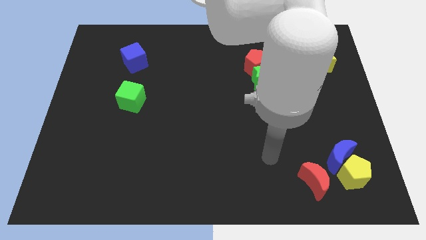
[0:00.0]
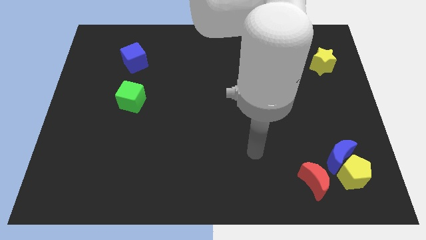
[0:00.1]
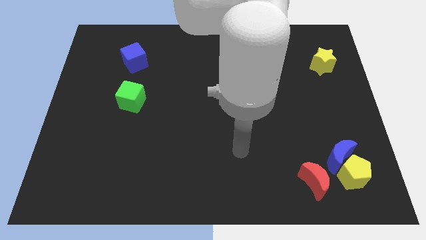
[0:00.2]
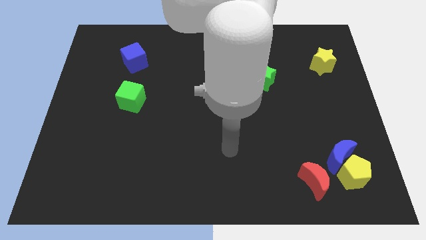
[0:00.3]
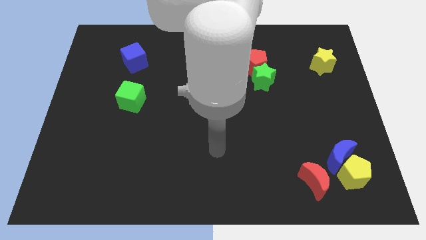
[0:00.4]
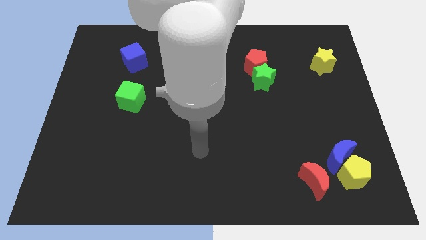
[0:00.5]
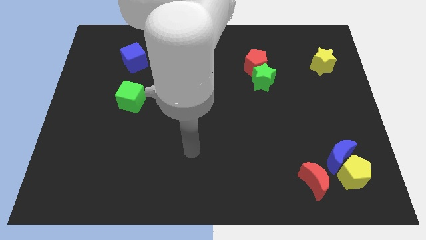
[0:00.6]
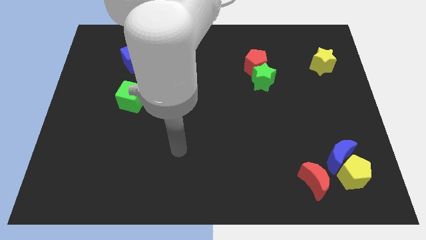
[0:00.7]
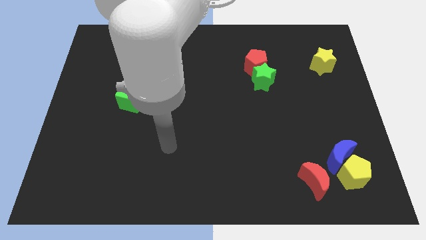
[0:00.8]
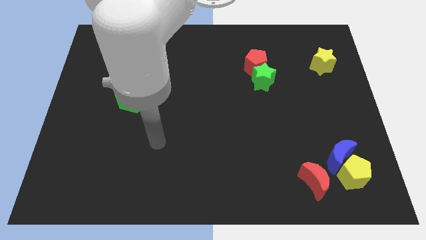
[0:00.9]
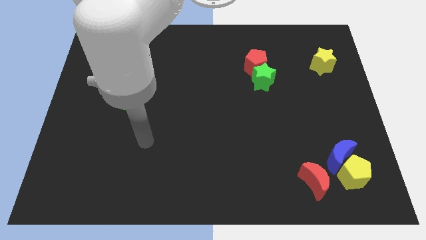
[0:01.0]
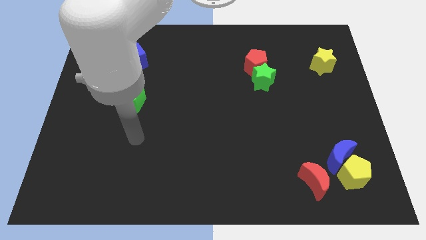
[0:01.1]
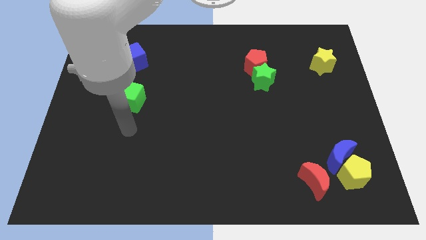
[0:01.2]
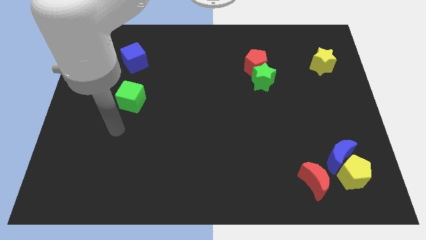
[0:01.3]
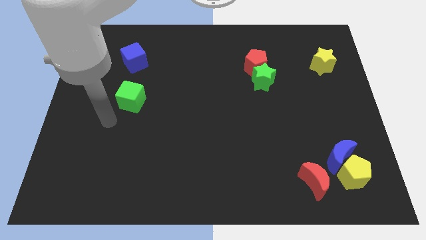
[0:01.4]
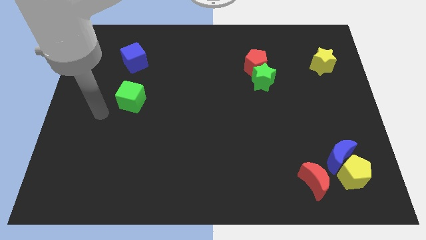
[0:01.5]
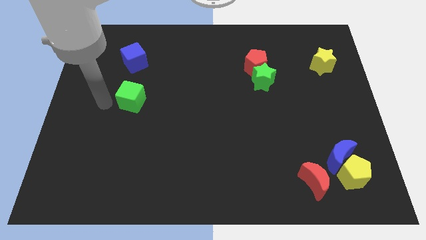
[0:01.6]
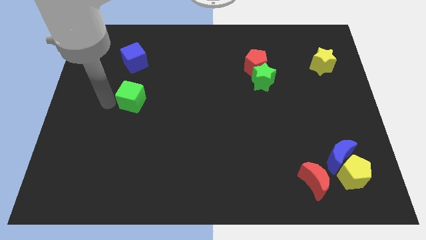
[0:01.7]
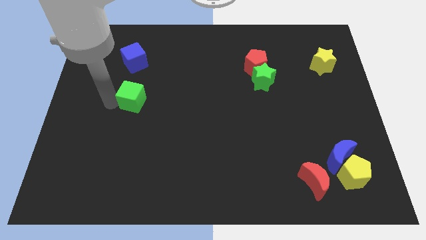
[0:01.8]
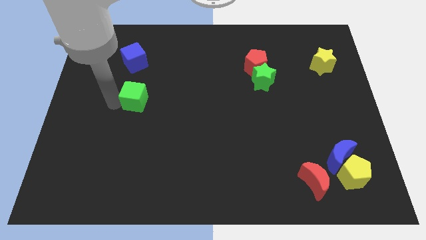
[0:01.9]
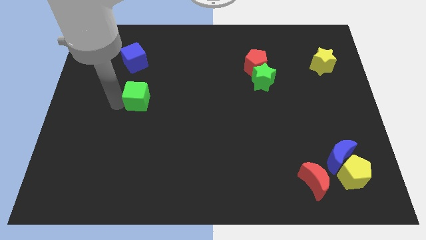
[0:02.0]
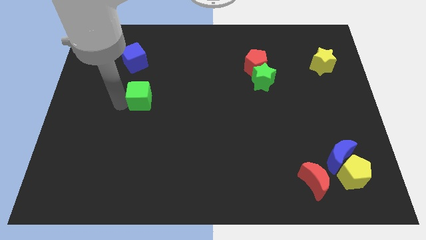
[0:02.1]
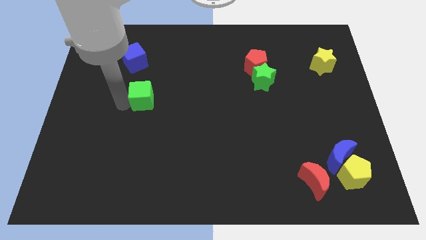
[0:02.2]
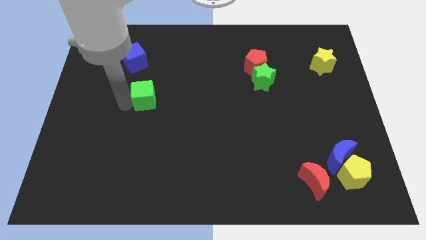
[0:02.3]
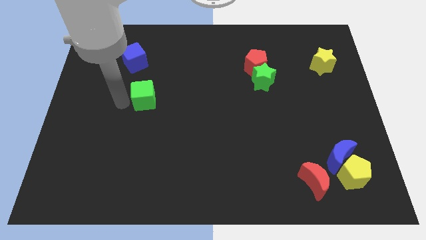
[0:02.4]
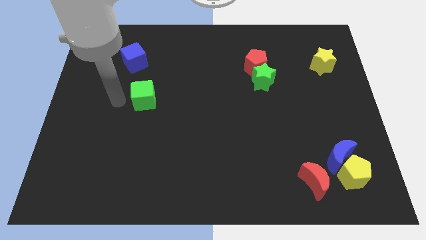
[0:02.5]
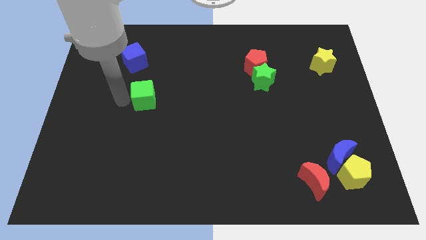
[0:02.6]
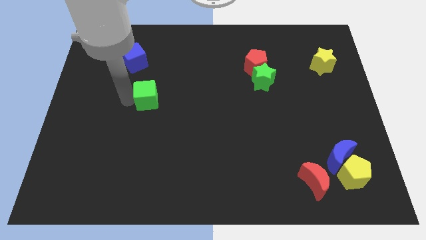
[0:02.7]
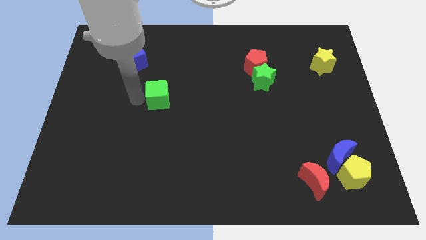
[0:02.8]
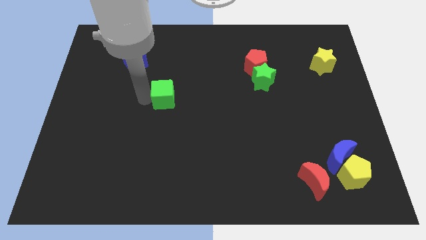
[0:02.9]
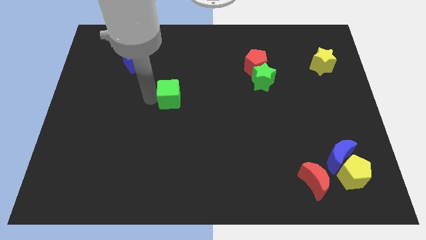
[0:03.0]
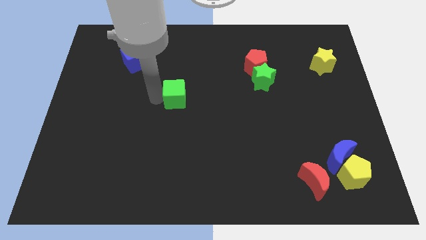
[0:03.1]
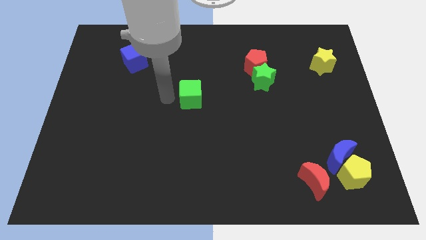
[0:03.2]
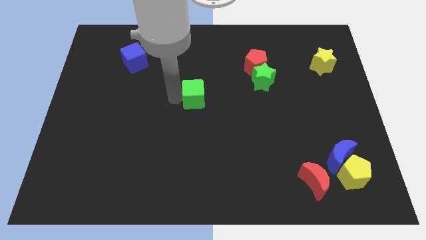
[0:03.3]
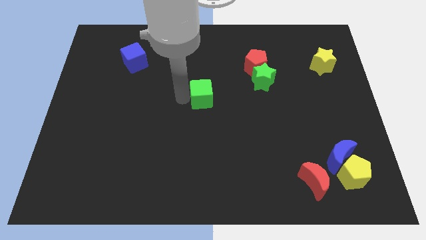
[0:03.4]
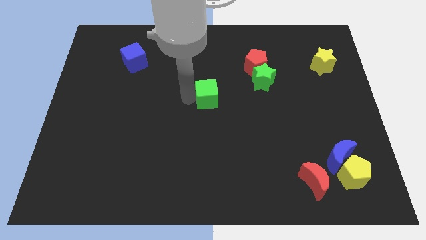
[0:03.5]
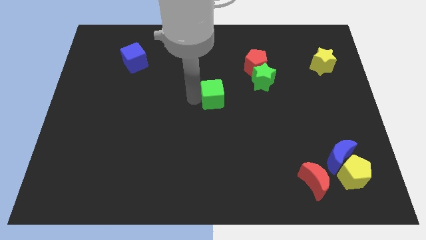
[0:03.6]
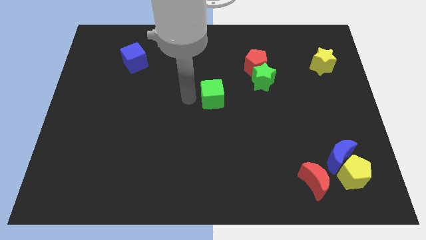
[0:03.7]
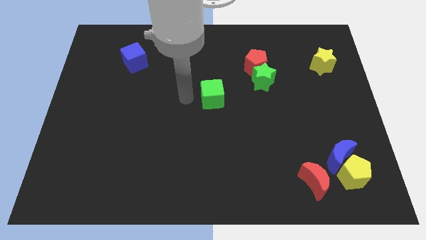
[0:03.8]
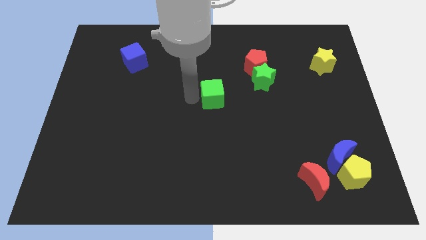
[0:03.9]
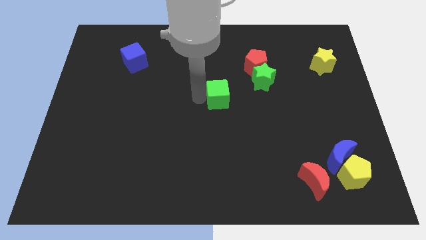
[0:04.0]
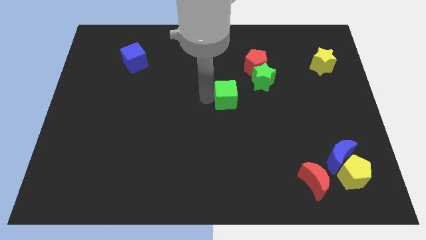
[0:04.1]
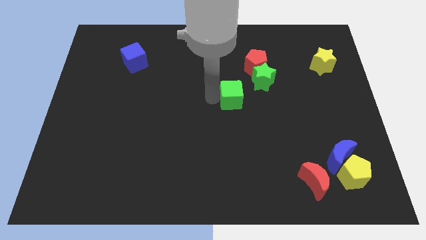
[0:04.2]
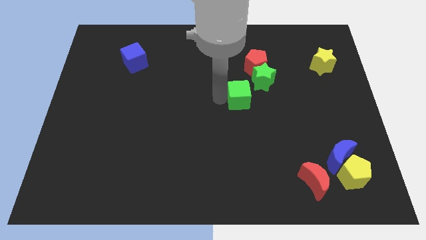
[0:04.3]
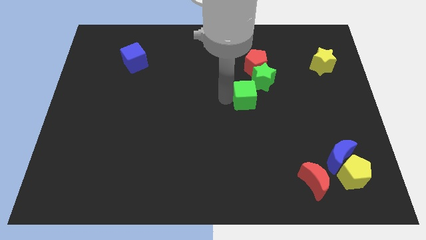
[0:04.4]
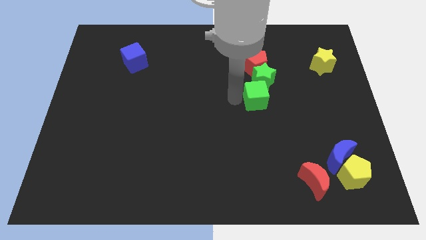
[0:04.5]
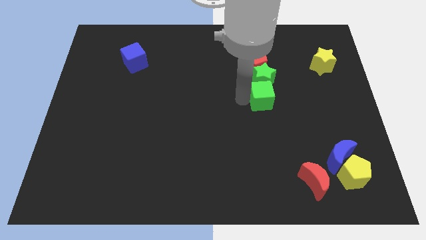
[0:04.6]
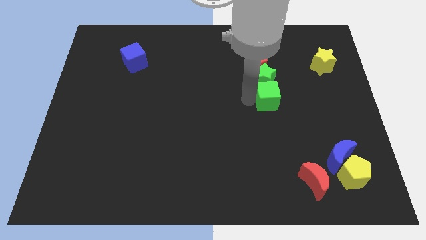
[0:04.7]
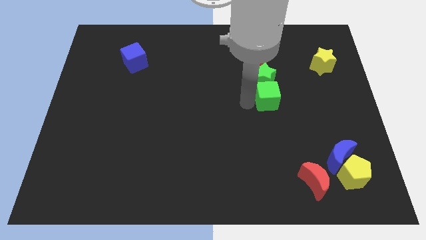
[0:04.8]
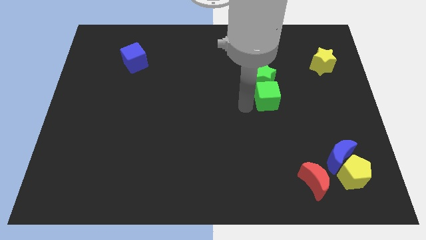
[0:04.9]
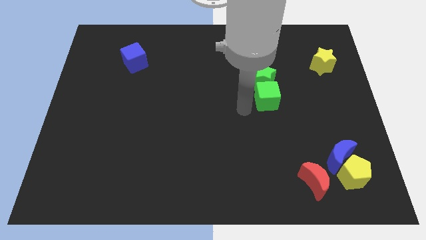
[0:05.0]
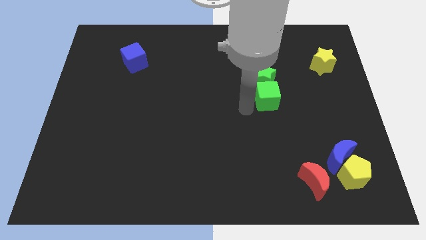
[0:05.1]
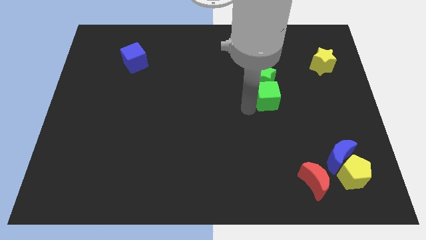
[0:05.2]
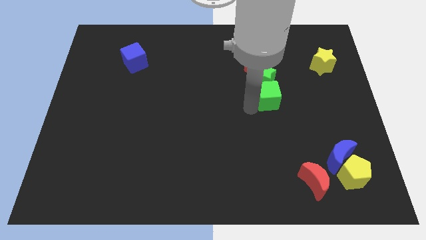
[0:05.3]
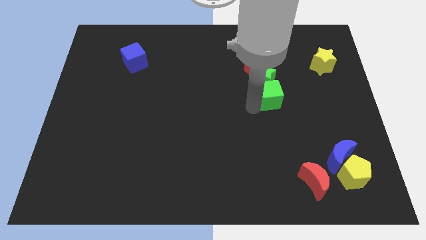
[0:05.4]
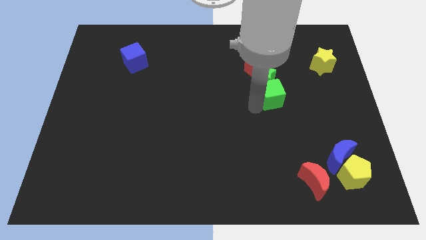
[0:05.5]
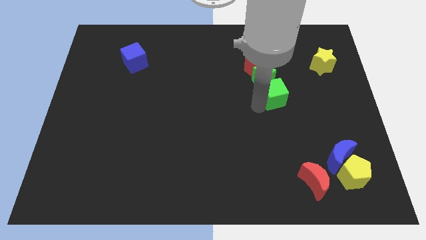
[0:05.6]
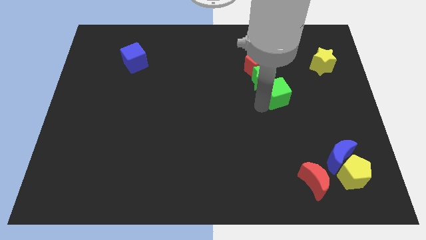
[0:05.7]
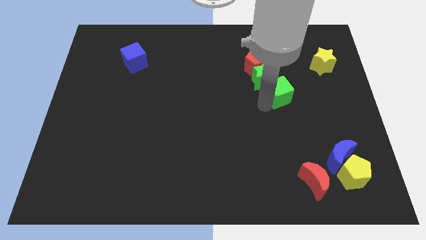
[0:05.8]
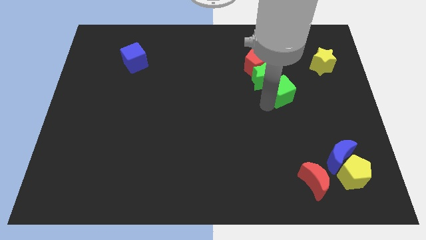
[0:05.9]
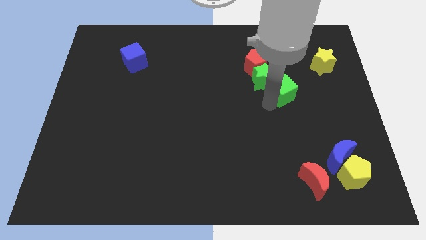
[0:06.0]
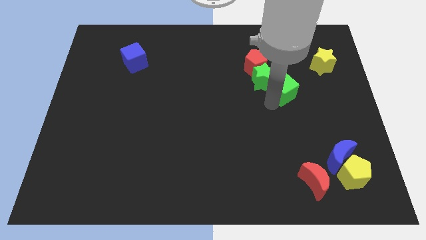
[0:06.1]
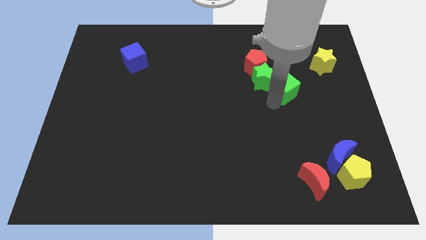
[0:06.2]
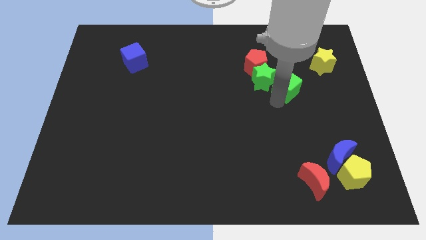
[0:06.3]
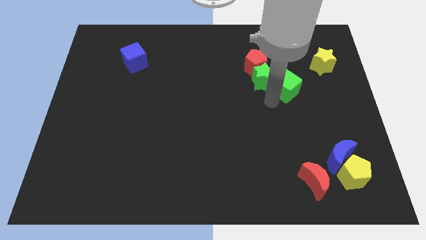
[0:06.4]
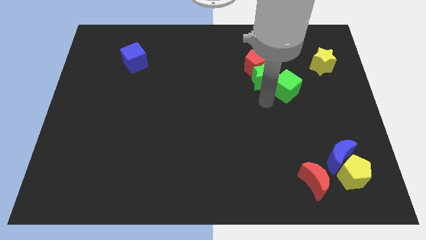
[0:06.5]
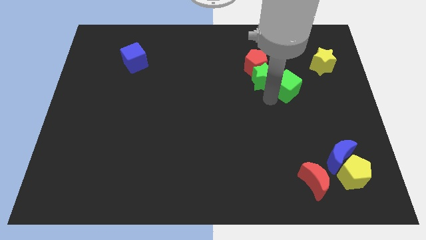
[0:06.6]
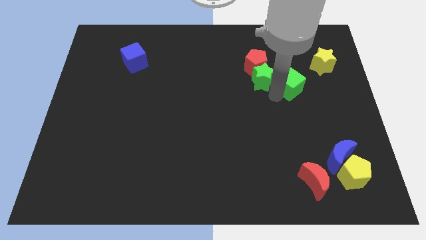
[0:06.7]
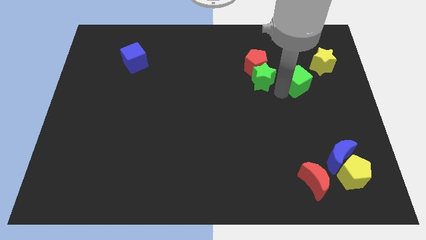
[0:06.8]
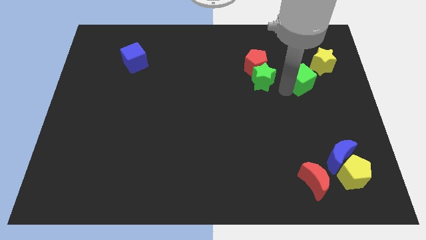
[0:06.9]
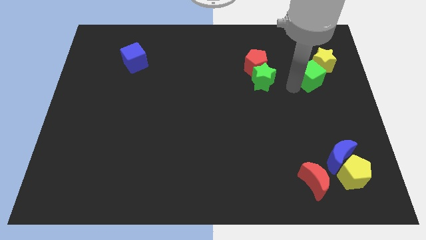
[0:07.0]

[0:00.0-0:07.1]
push the green cube towards the yellow star
